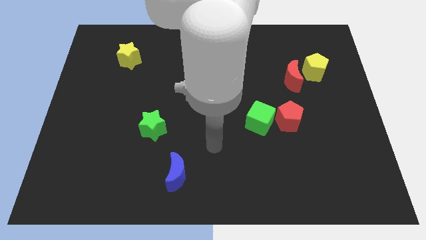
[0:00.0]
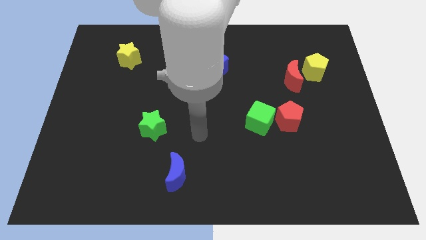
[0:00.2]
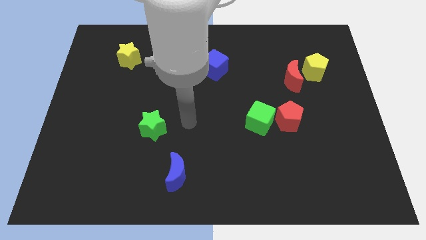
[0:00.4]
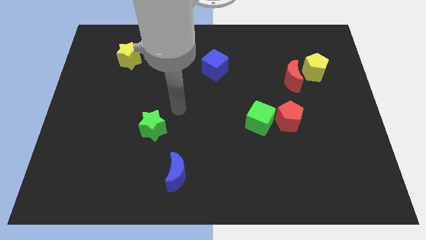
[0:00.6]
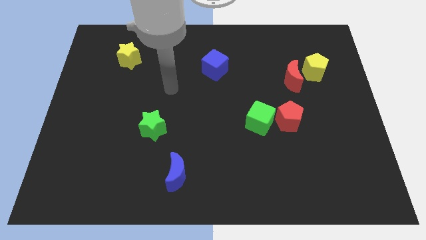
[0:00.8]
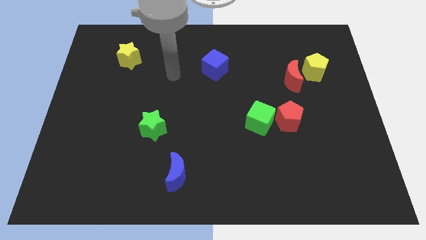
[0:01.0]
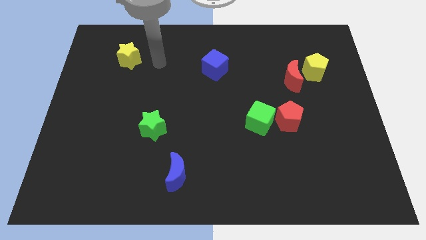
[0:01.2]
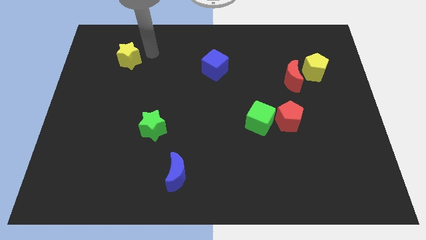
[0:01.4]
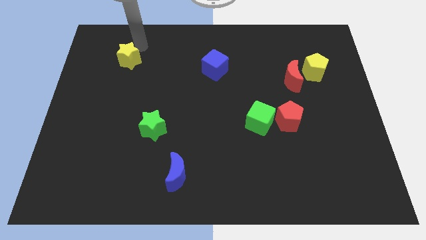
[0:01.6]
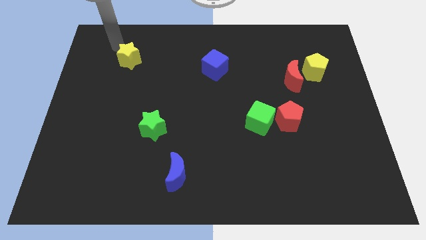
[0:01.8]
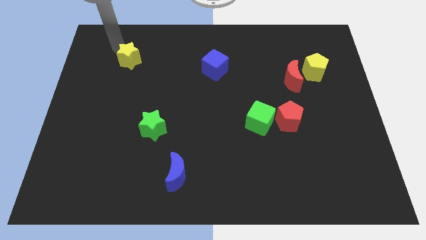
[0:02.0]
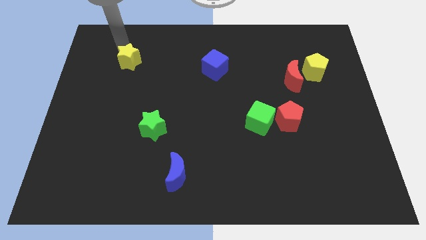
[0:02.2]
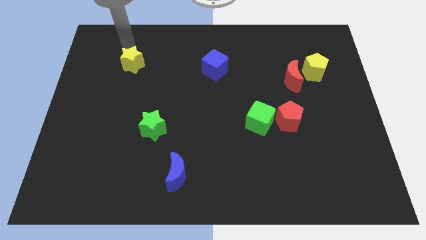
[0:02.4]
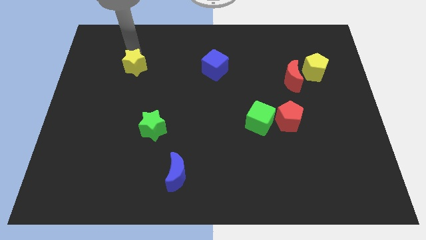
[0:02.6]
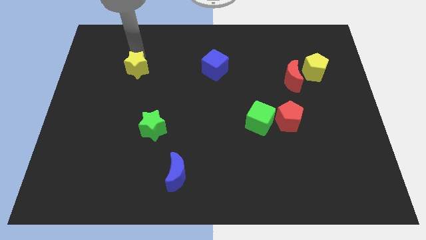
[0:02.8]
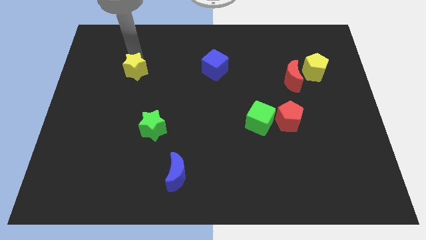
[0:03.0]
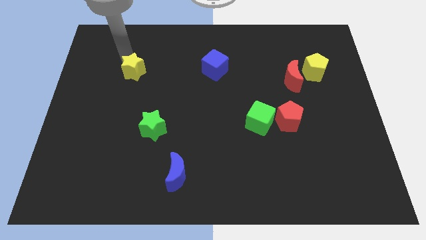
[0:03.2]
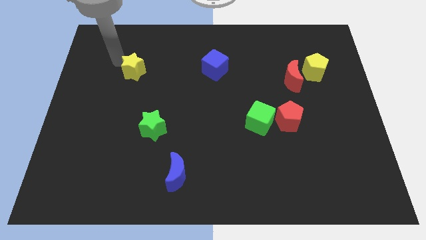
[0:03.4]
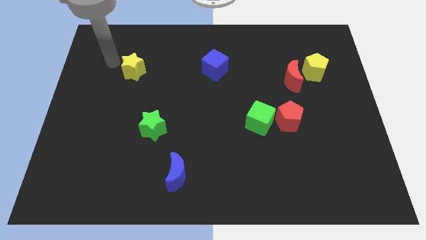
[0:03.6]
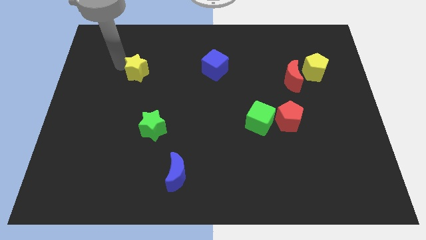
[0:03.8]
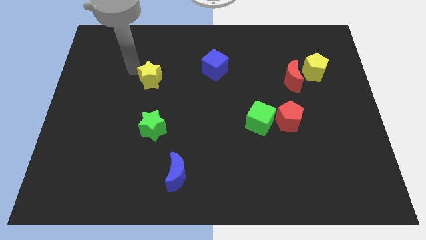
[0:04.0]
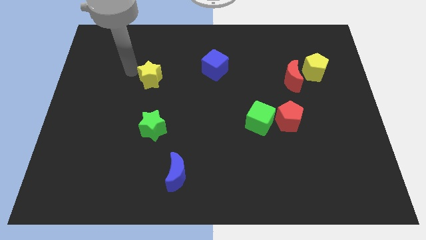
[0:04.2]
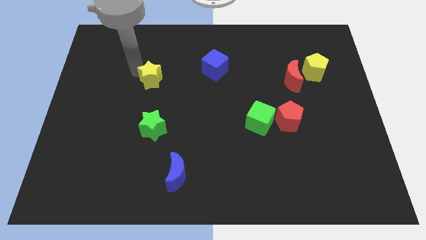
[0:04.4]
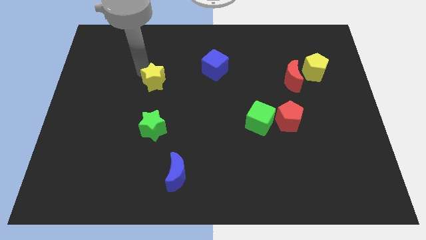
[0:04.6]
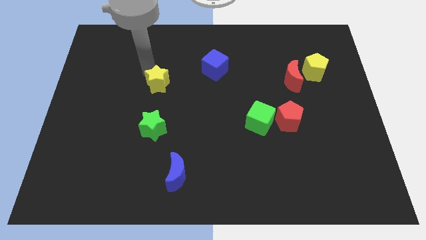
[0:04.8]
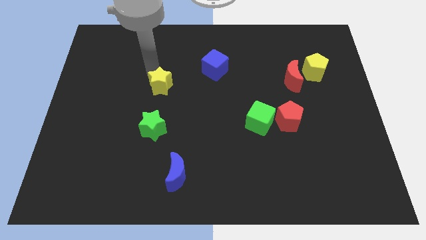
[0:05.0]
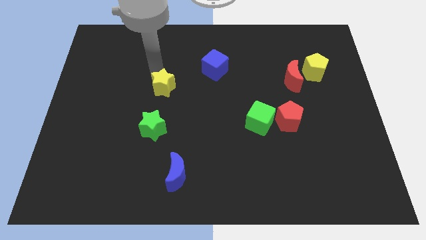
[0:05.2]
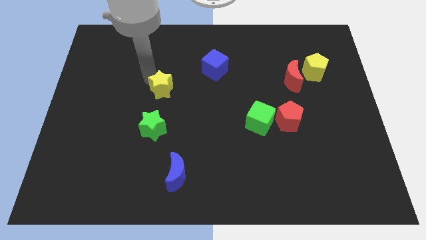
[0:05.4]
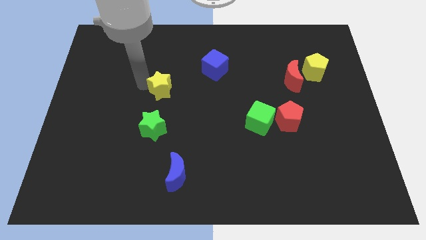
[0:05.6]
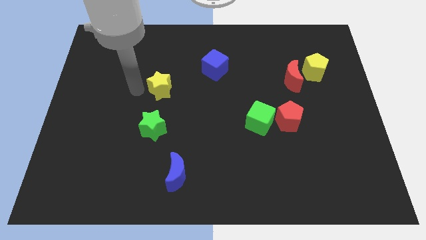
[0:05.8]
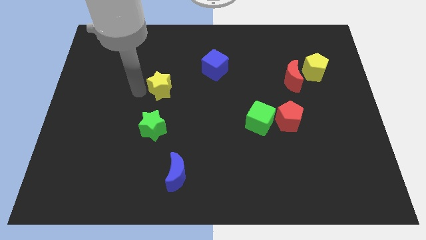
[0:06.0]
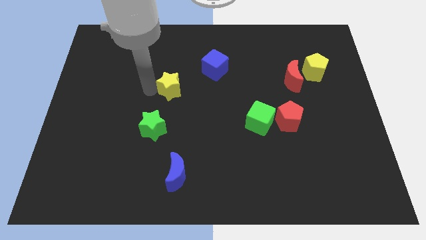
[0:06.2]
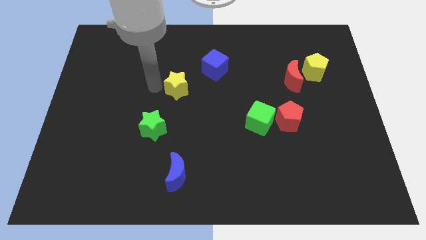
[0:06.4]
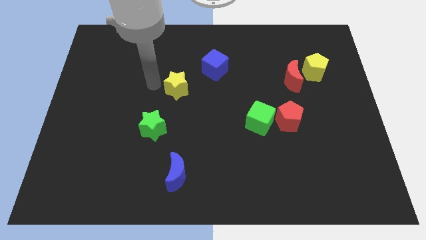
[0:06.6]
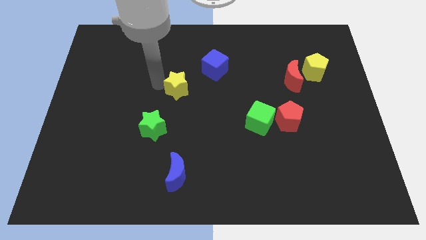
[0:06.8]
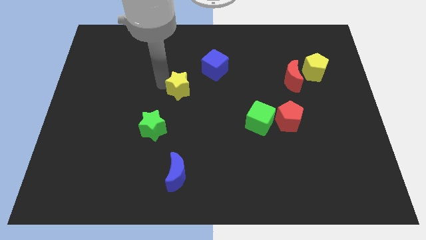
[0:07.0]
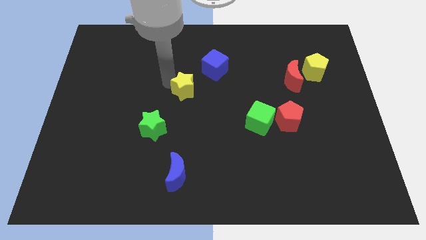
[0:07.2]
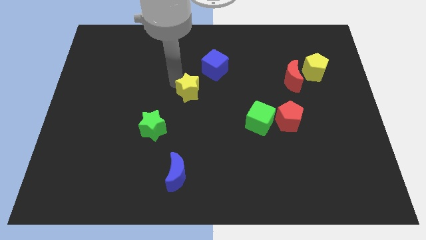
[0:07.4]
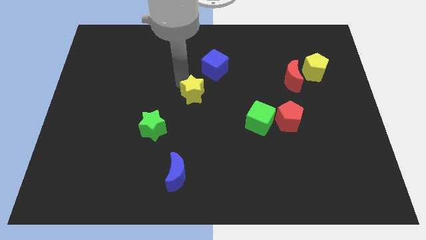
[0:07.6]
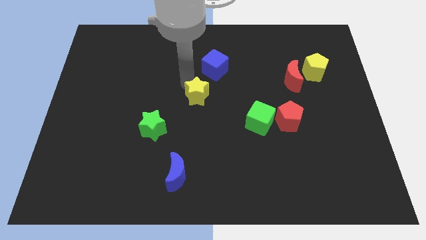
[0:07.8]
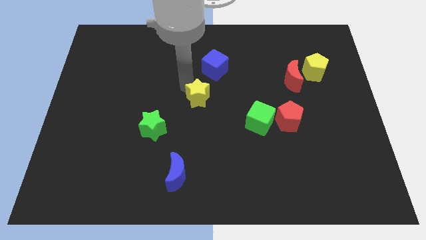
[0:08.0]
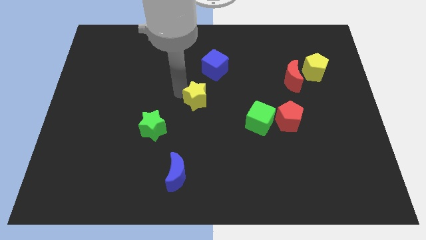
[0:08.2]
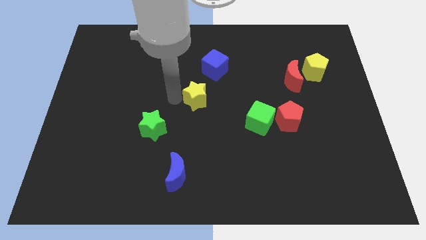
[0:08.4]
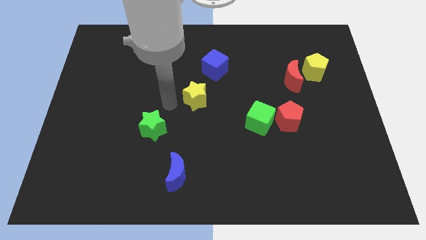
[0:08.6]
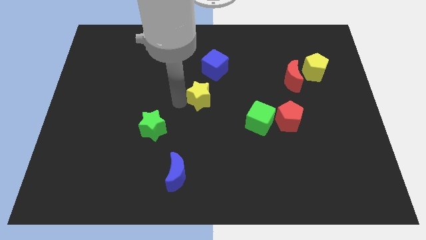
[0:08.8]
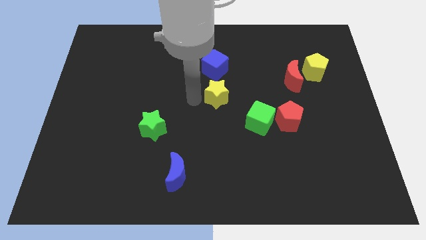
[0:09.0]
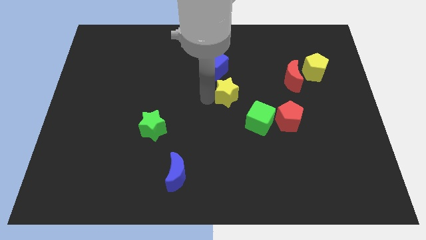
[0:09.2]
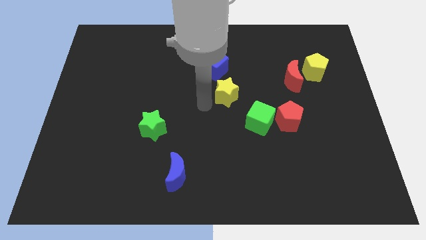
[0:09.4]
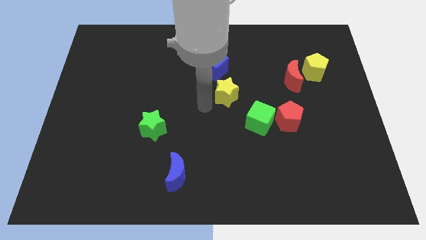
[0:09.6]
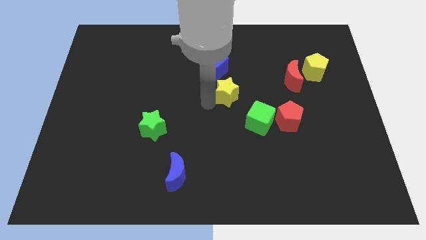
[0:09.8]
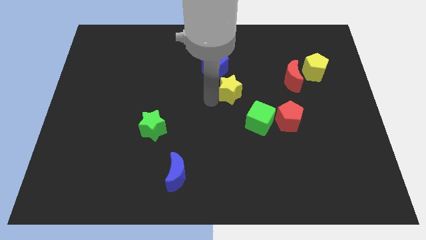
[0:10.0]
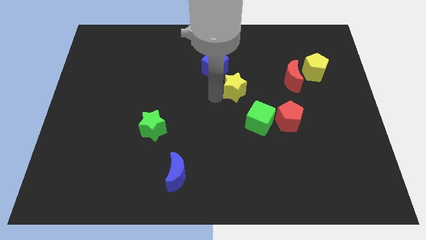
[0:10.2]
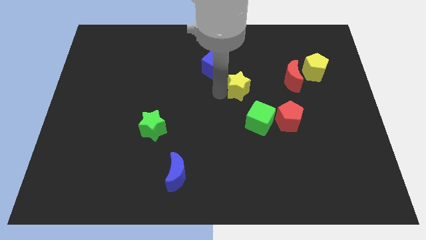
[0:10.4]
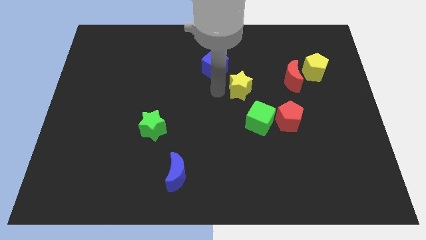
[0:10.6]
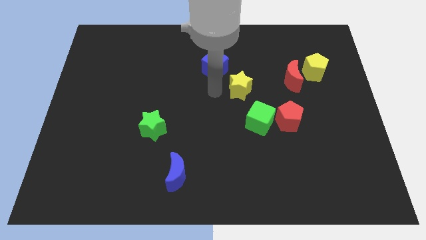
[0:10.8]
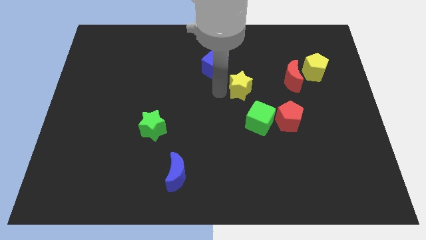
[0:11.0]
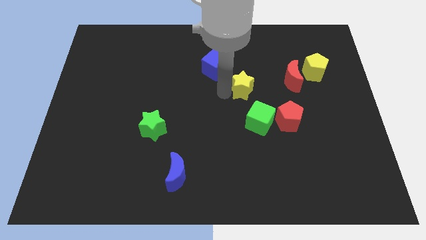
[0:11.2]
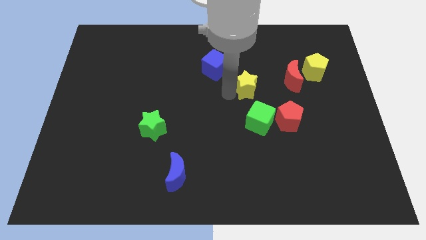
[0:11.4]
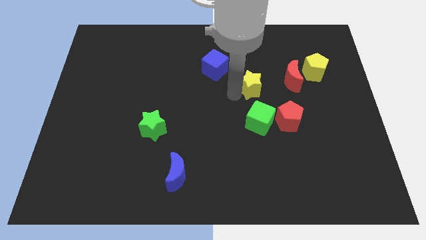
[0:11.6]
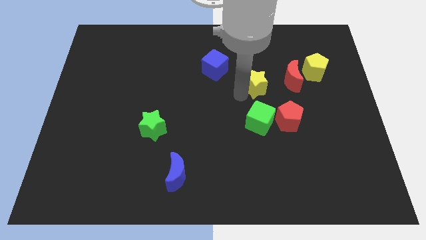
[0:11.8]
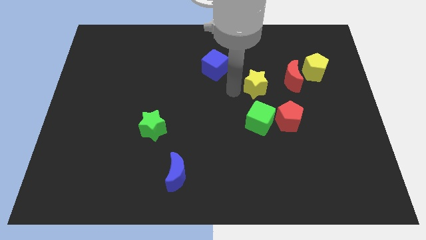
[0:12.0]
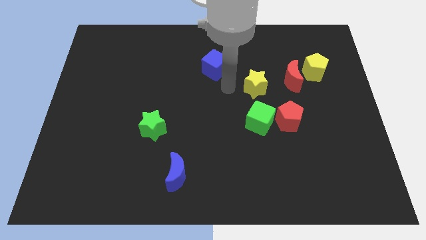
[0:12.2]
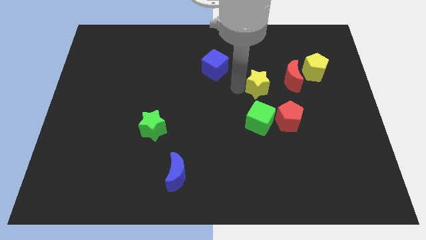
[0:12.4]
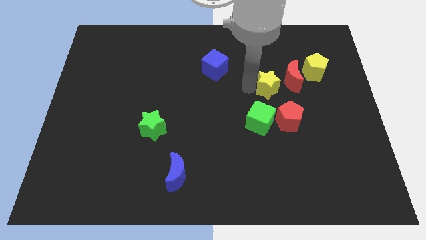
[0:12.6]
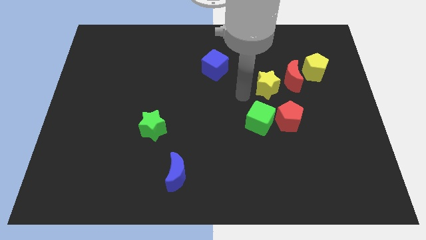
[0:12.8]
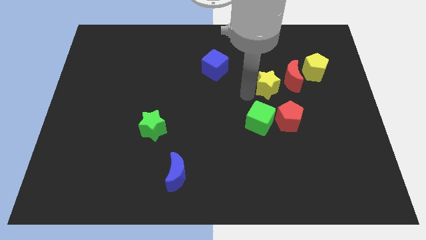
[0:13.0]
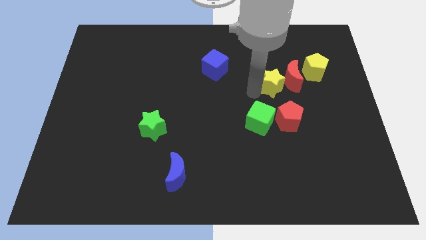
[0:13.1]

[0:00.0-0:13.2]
slide the yellow star to the red moon

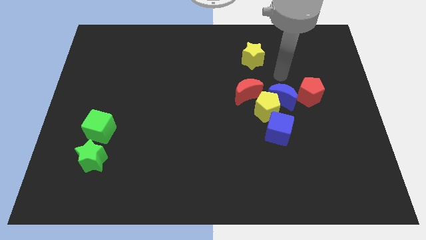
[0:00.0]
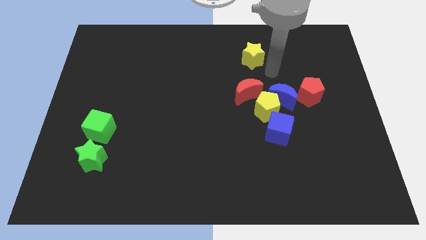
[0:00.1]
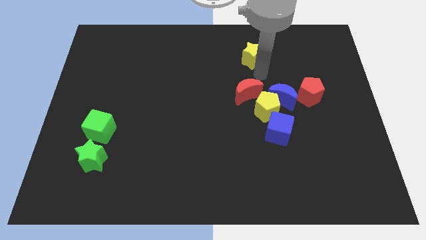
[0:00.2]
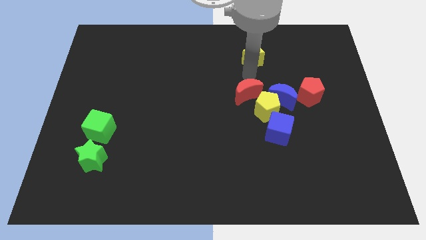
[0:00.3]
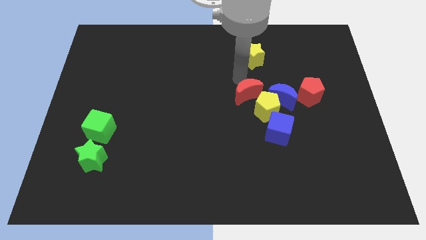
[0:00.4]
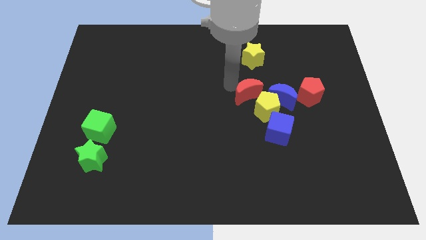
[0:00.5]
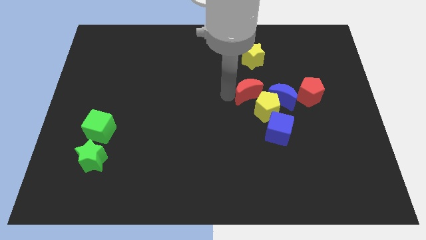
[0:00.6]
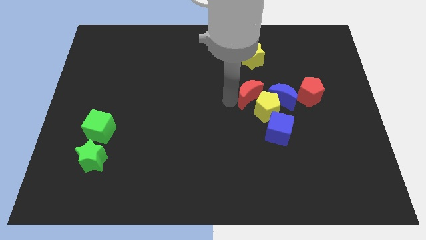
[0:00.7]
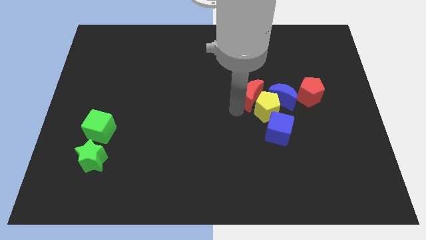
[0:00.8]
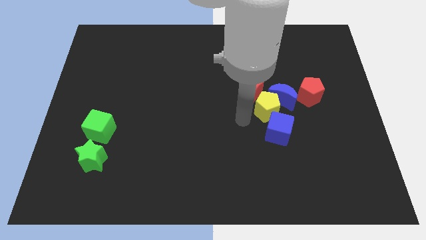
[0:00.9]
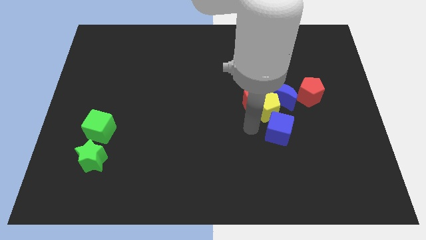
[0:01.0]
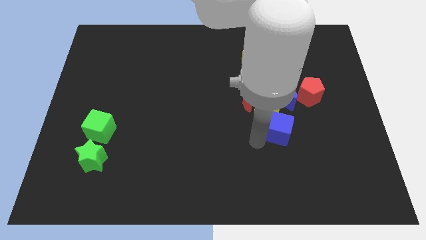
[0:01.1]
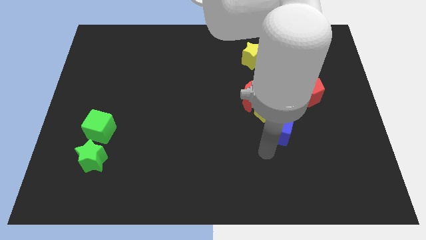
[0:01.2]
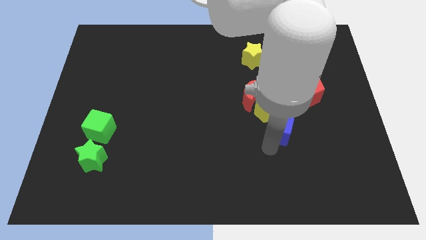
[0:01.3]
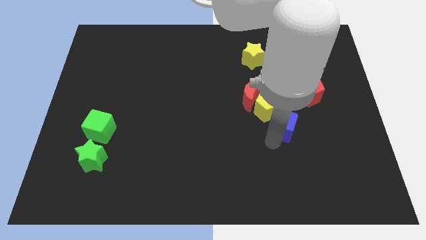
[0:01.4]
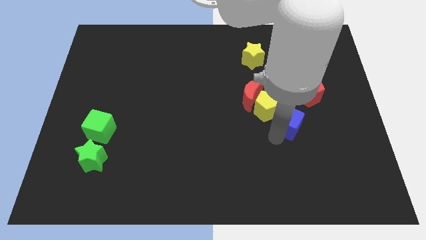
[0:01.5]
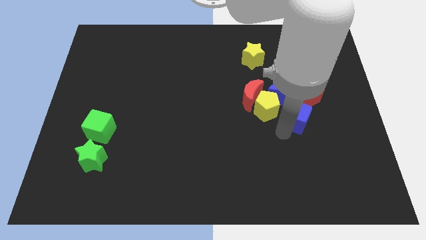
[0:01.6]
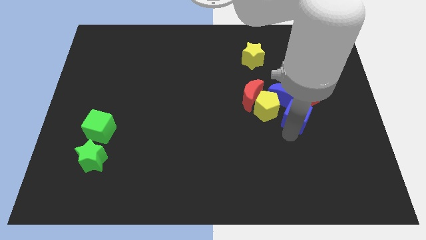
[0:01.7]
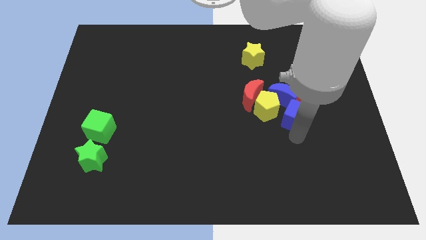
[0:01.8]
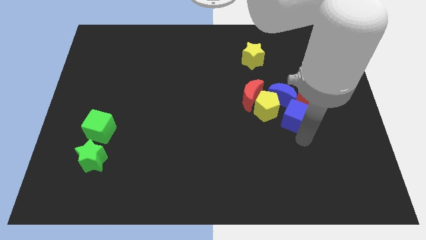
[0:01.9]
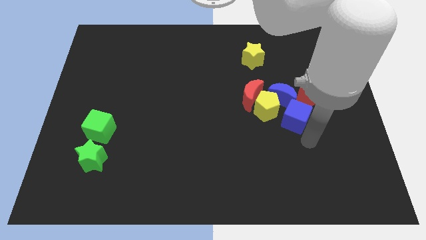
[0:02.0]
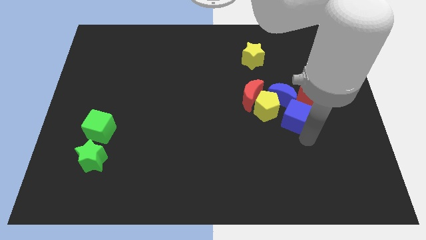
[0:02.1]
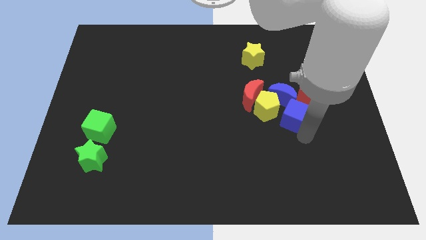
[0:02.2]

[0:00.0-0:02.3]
slide the blue cube close to the blue moon
